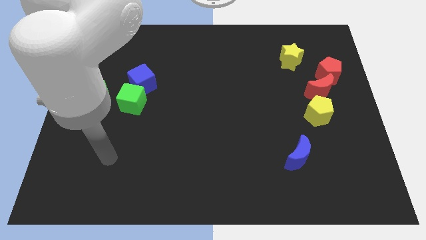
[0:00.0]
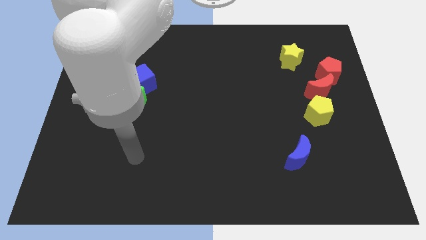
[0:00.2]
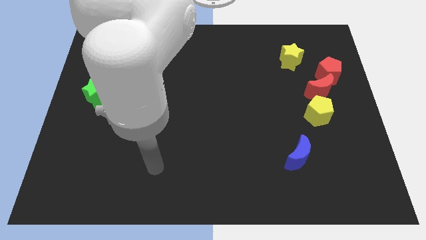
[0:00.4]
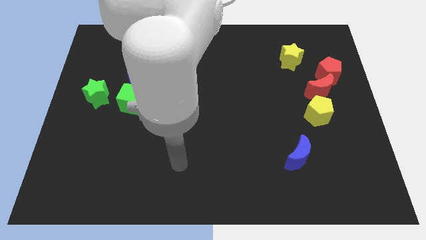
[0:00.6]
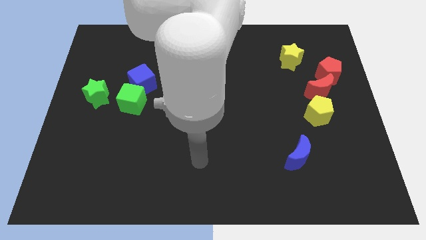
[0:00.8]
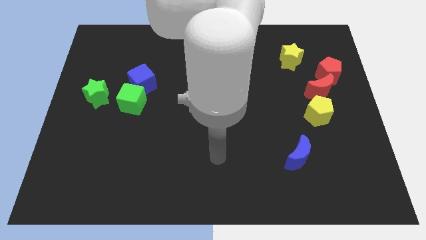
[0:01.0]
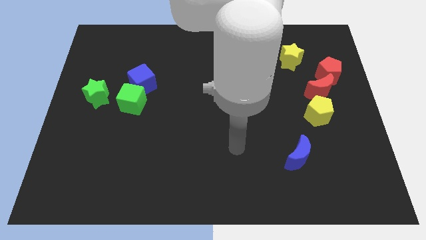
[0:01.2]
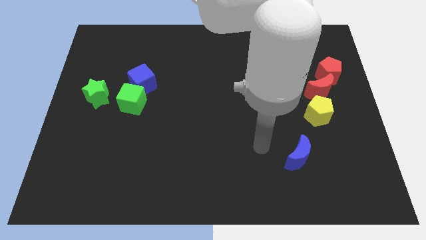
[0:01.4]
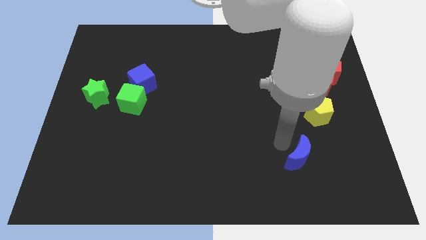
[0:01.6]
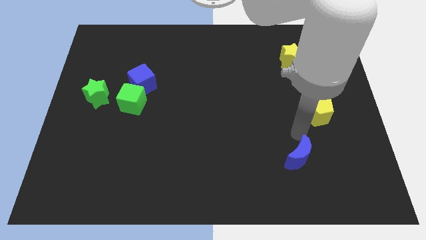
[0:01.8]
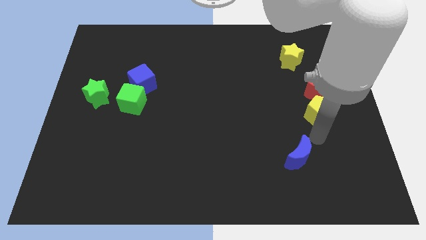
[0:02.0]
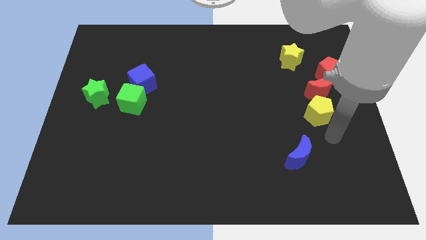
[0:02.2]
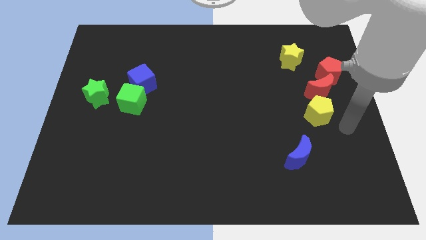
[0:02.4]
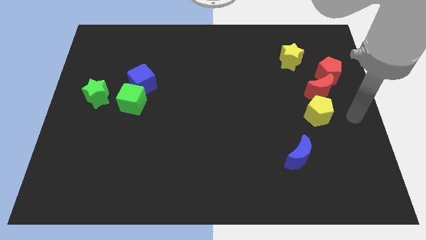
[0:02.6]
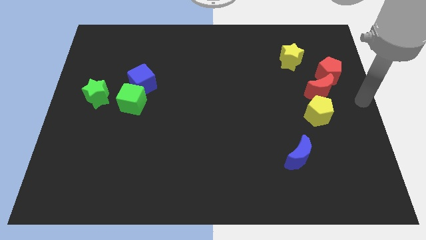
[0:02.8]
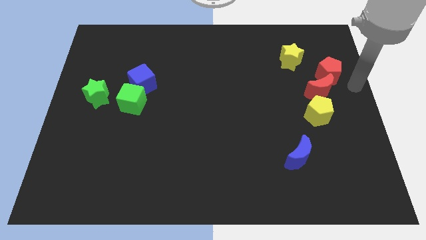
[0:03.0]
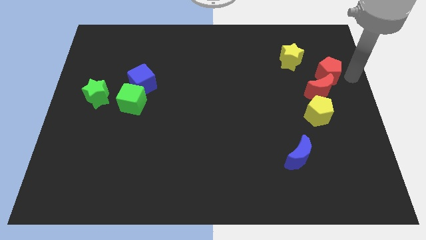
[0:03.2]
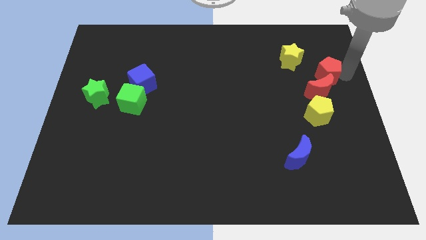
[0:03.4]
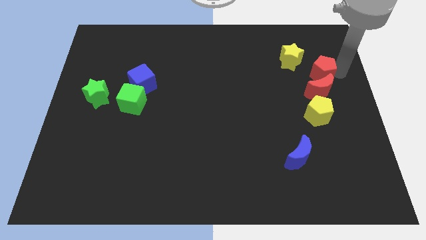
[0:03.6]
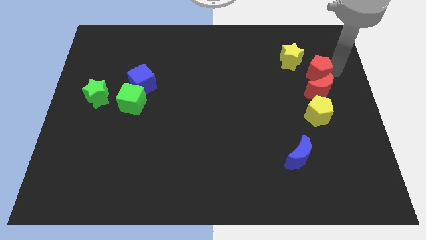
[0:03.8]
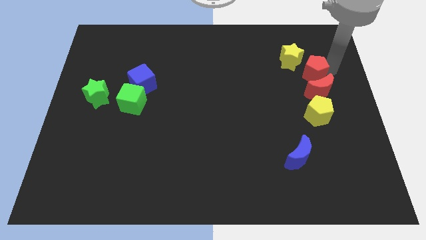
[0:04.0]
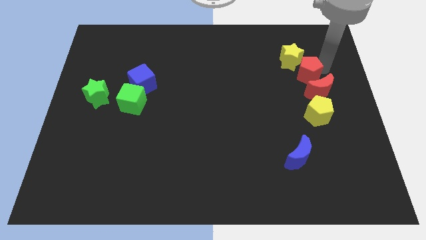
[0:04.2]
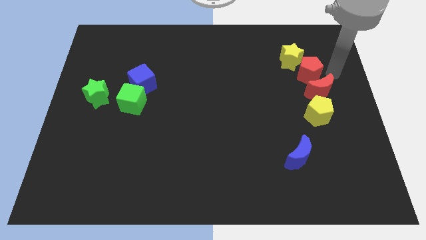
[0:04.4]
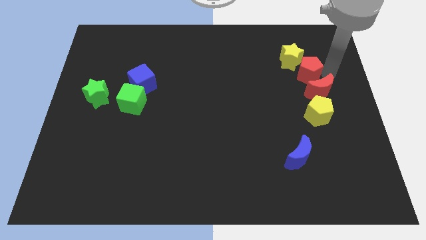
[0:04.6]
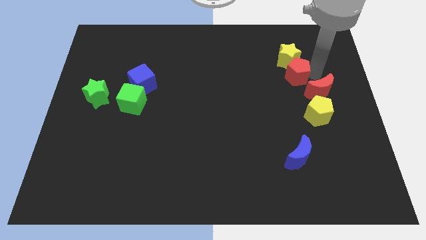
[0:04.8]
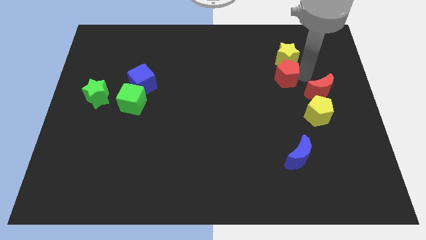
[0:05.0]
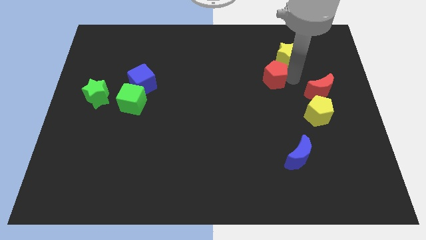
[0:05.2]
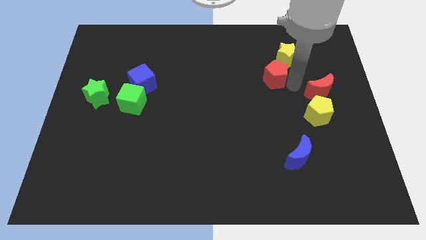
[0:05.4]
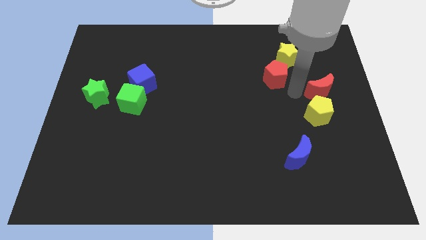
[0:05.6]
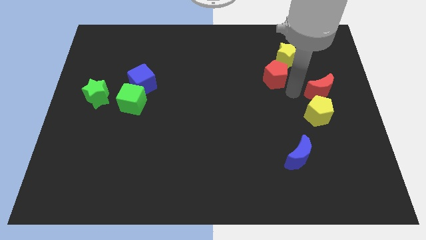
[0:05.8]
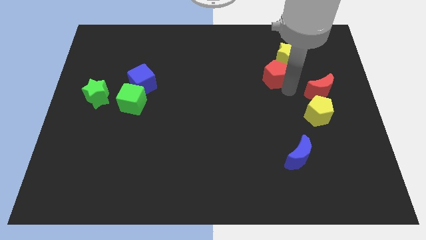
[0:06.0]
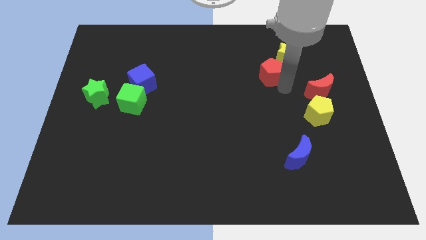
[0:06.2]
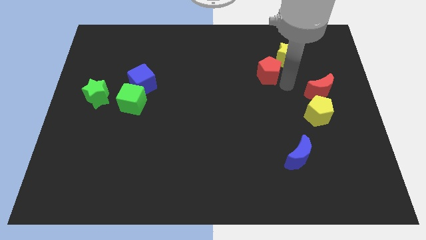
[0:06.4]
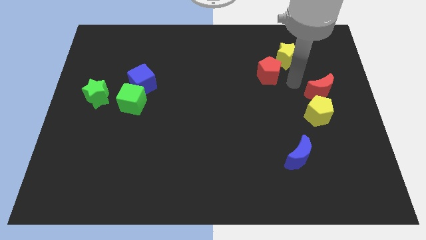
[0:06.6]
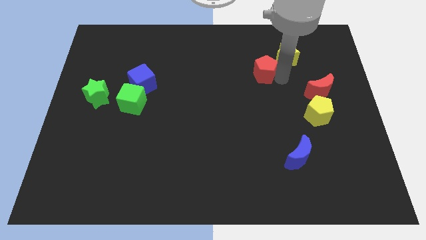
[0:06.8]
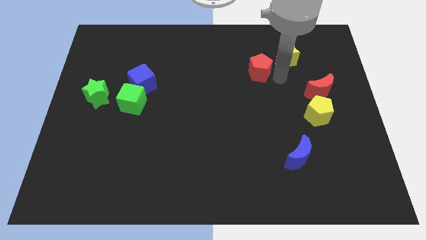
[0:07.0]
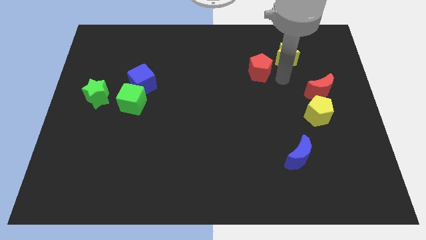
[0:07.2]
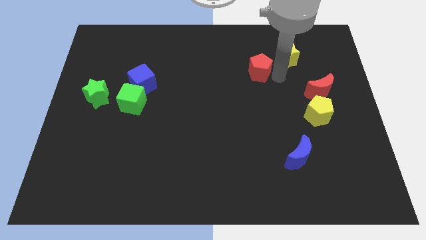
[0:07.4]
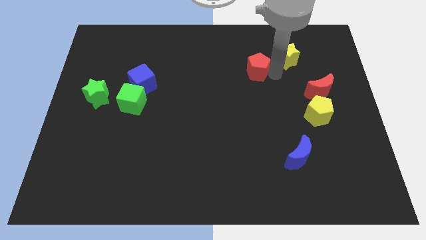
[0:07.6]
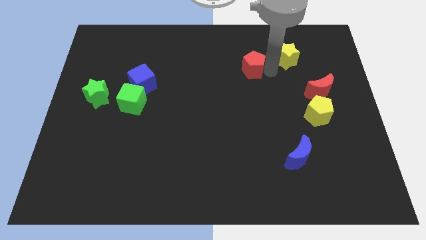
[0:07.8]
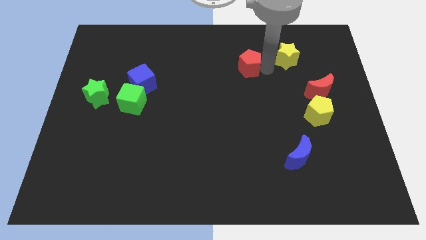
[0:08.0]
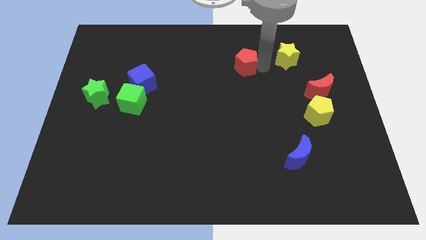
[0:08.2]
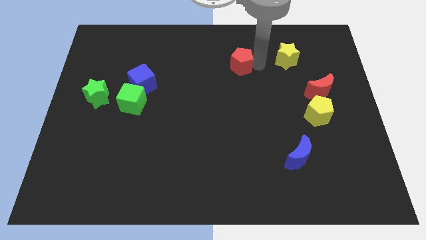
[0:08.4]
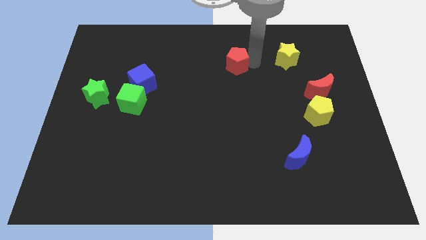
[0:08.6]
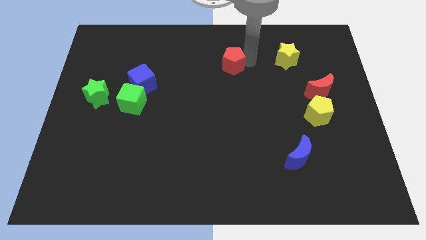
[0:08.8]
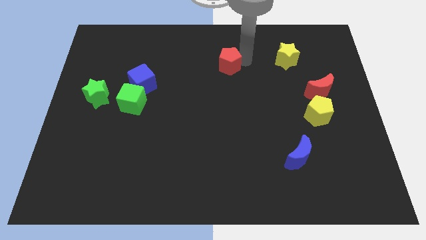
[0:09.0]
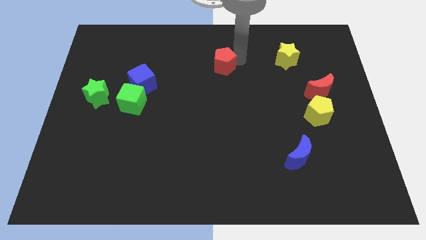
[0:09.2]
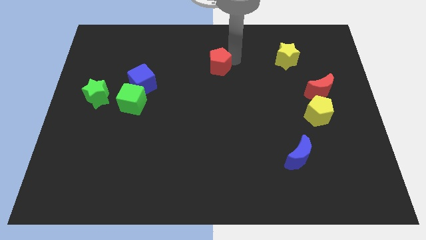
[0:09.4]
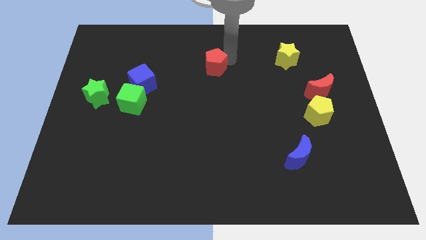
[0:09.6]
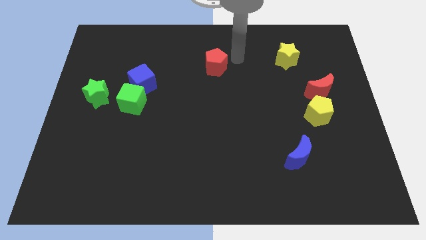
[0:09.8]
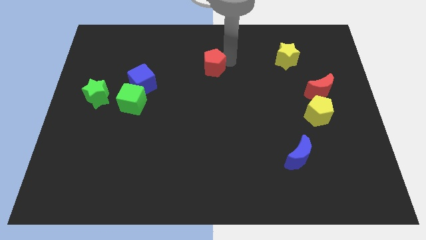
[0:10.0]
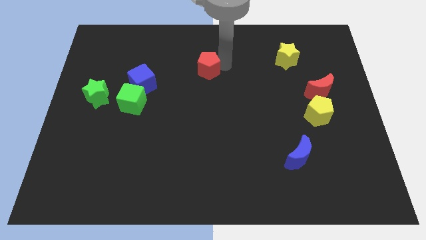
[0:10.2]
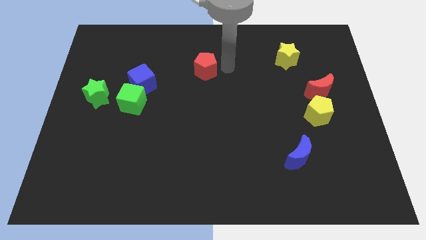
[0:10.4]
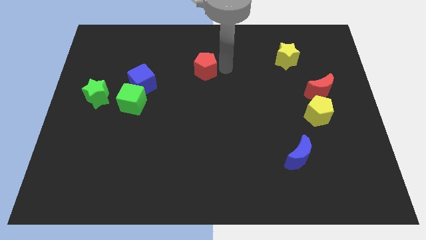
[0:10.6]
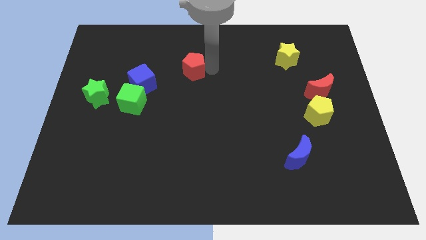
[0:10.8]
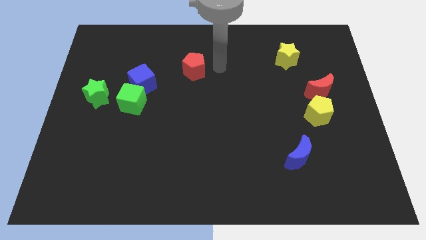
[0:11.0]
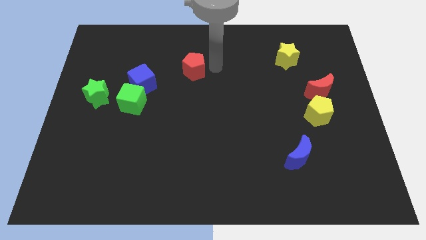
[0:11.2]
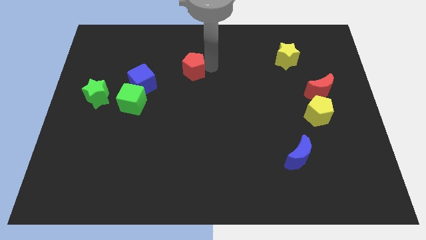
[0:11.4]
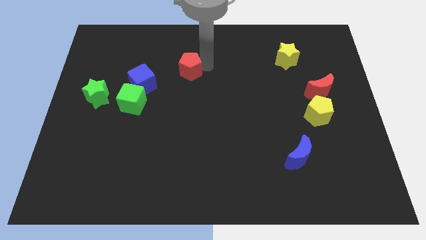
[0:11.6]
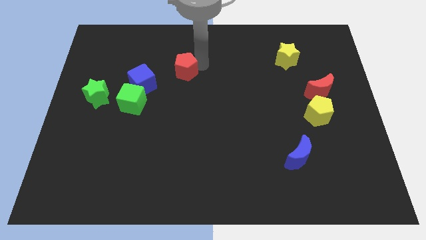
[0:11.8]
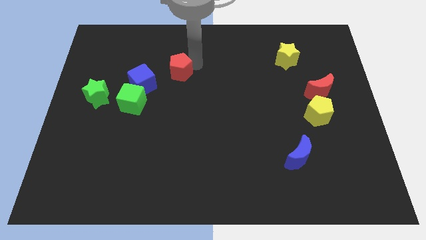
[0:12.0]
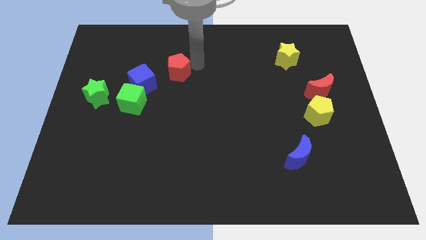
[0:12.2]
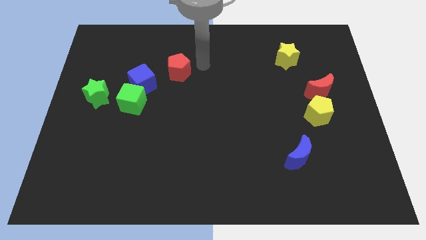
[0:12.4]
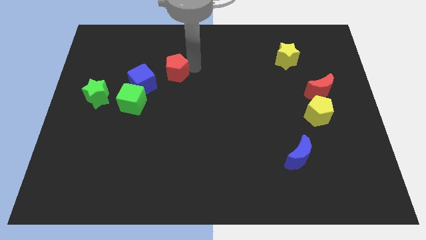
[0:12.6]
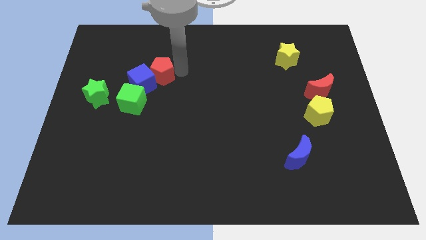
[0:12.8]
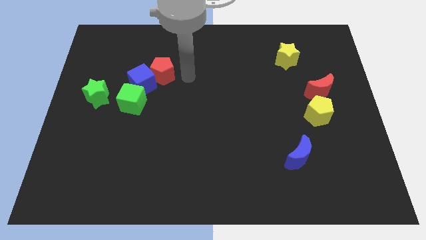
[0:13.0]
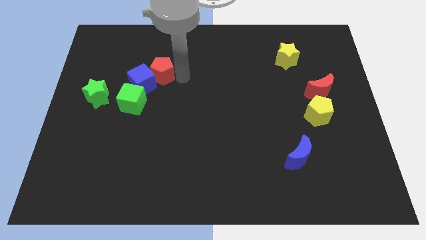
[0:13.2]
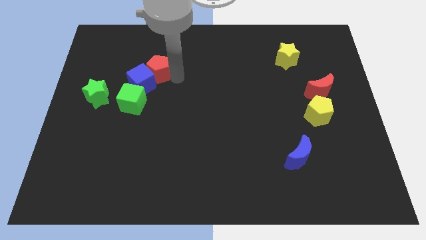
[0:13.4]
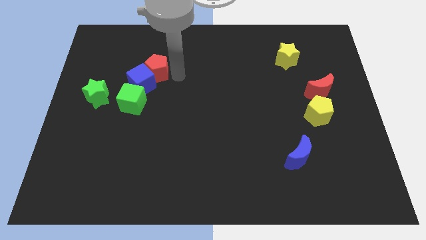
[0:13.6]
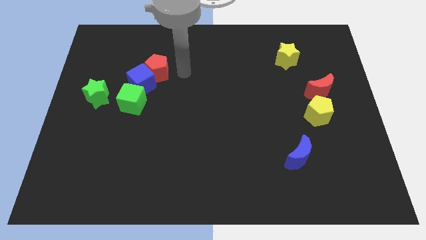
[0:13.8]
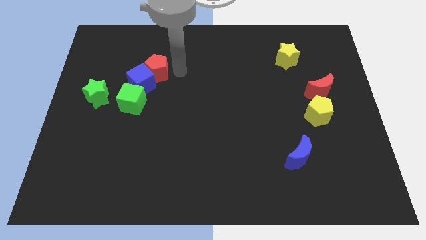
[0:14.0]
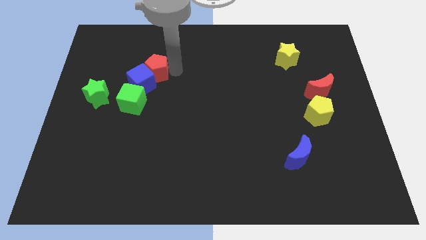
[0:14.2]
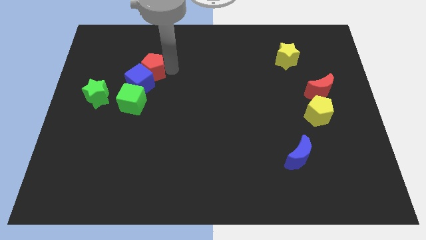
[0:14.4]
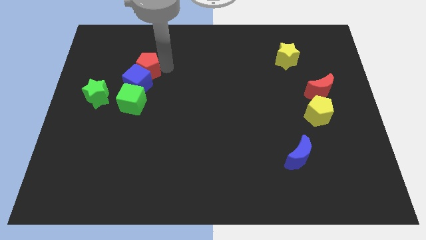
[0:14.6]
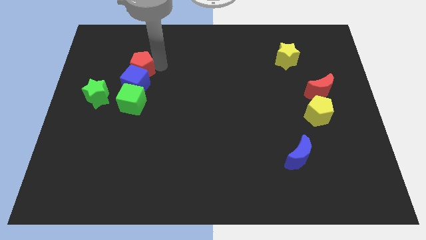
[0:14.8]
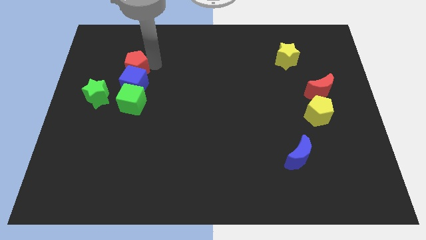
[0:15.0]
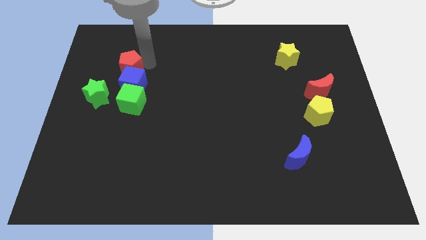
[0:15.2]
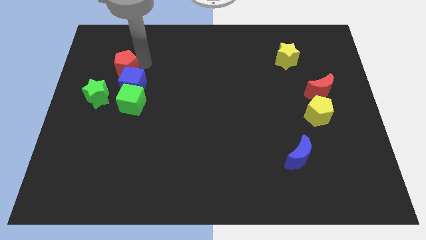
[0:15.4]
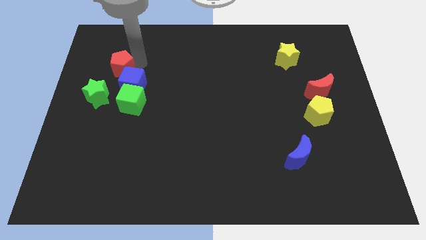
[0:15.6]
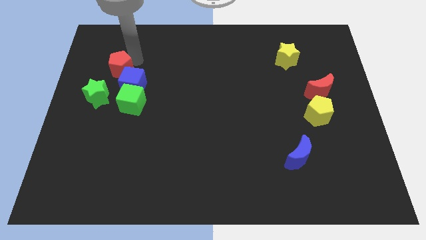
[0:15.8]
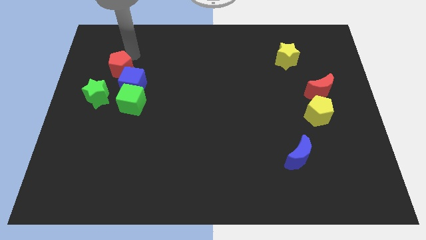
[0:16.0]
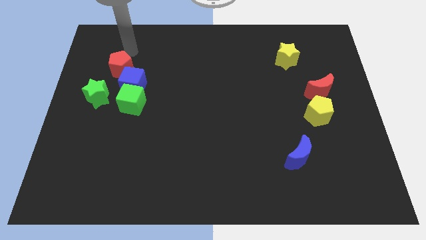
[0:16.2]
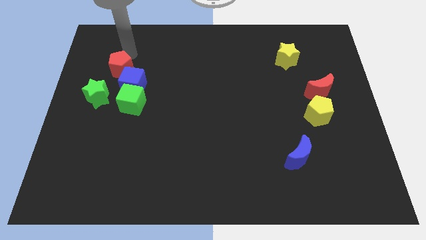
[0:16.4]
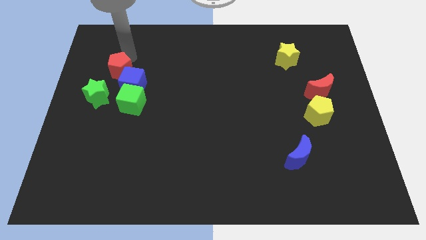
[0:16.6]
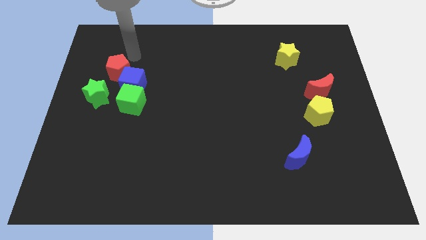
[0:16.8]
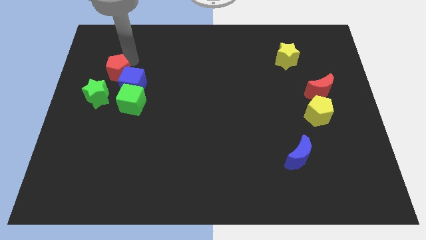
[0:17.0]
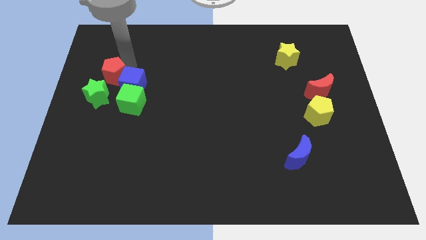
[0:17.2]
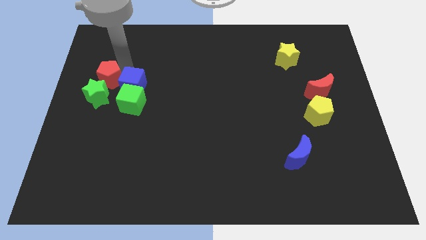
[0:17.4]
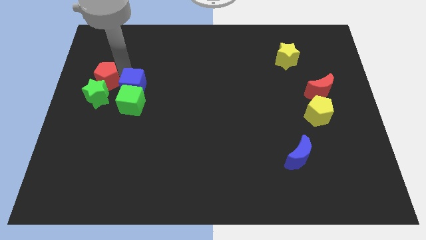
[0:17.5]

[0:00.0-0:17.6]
move the red pentagon towards the green star
